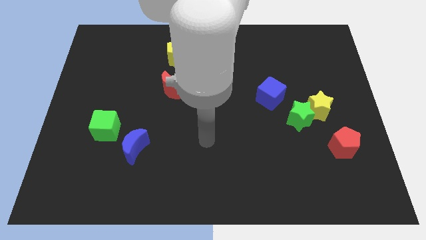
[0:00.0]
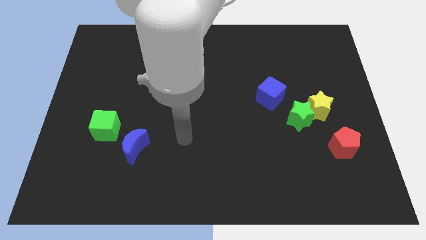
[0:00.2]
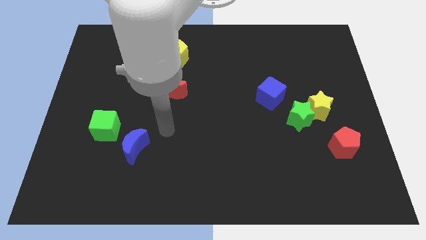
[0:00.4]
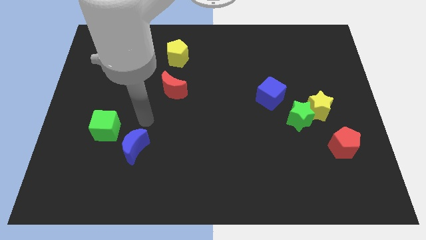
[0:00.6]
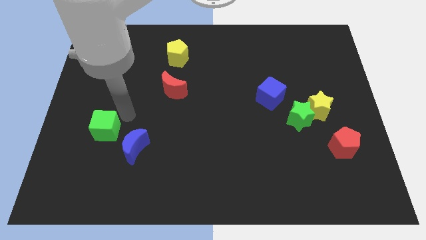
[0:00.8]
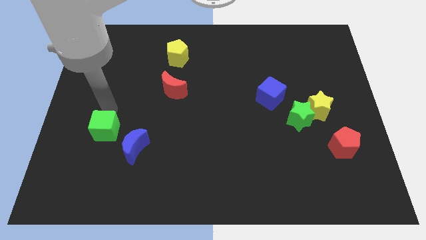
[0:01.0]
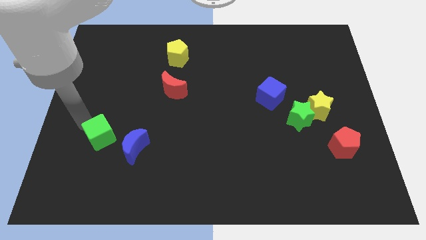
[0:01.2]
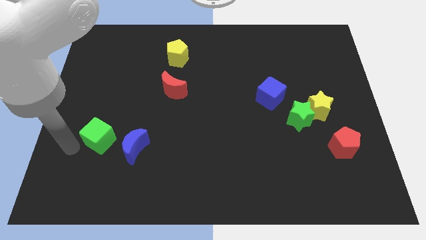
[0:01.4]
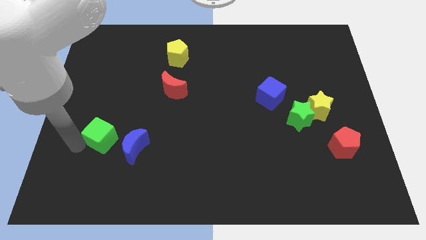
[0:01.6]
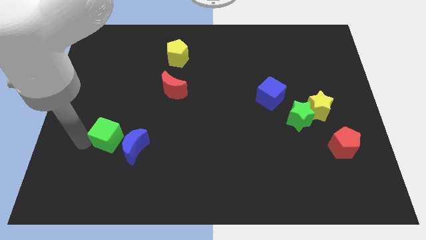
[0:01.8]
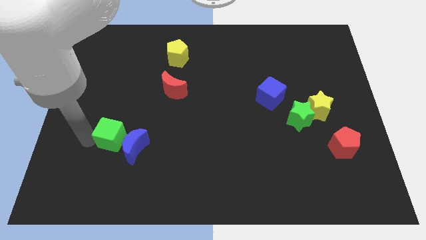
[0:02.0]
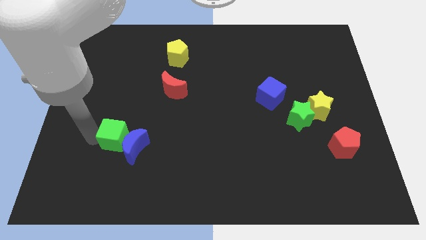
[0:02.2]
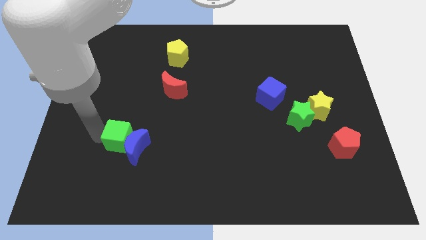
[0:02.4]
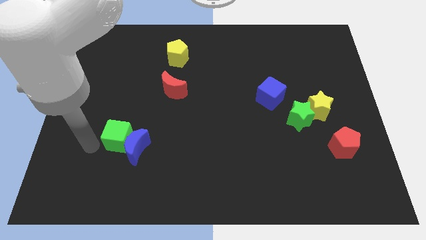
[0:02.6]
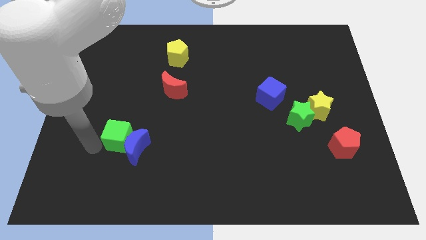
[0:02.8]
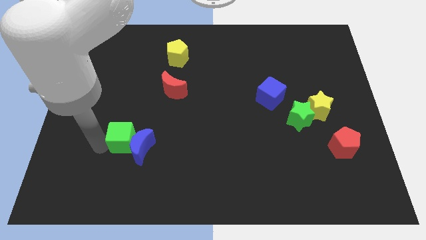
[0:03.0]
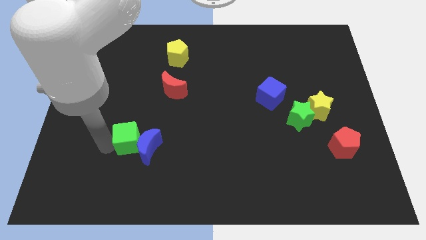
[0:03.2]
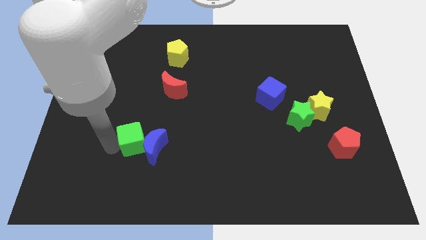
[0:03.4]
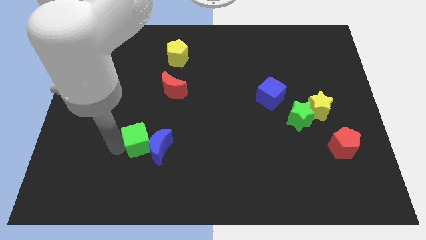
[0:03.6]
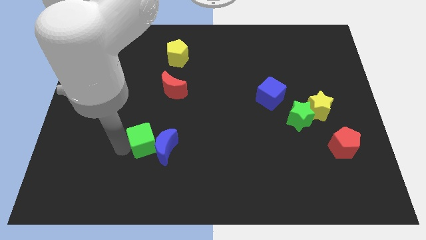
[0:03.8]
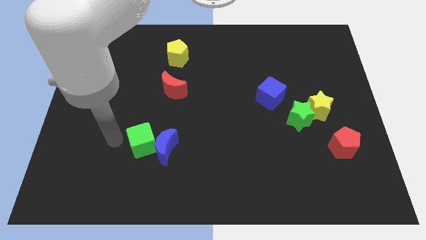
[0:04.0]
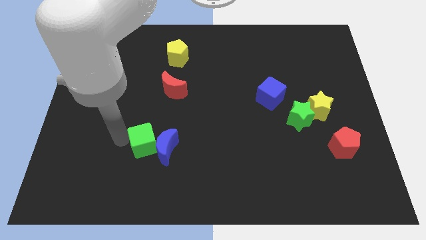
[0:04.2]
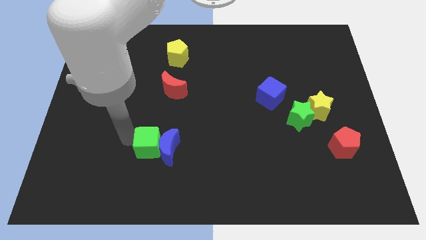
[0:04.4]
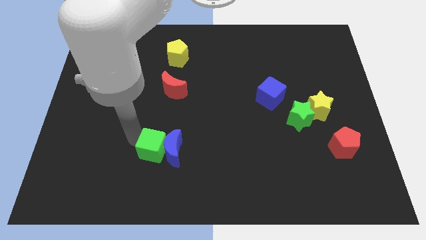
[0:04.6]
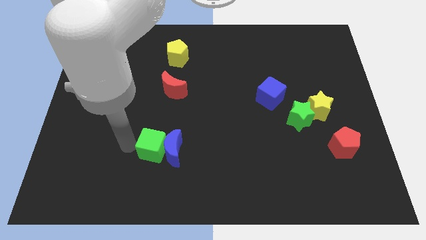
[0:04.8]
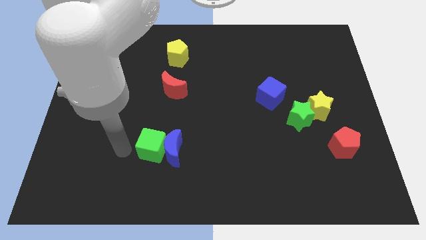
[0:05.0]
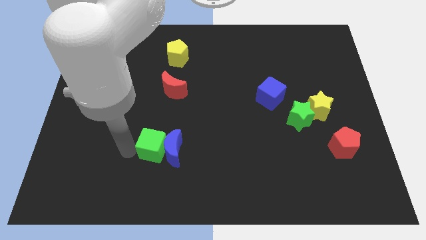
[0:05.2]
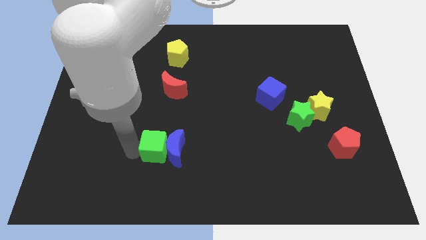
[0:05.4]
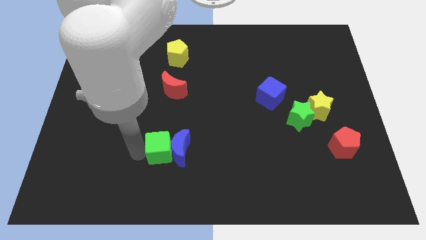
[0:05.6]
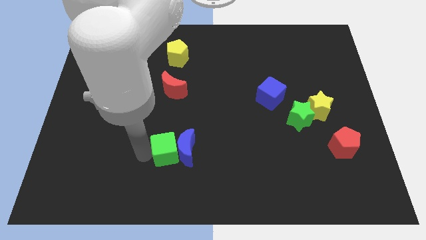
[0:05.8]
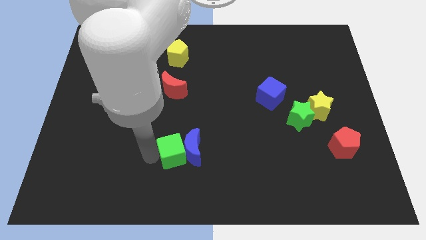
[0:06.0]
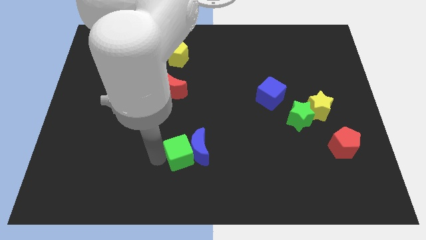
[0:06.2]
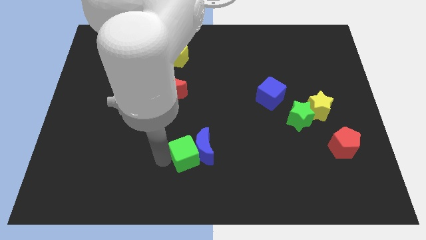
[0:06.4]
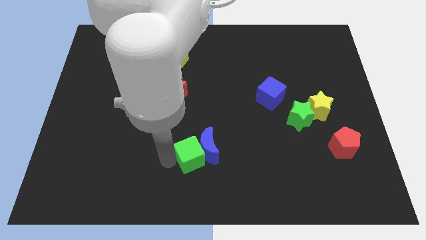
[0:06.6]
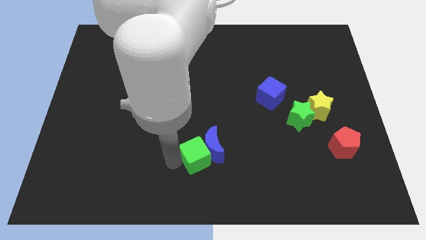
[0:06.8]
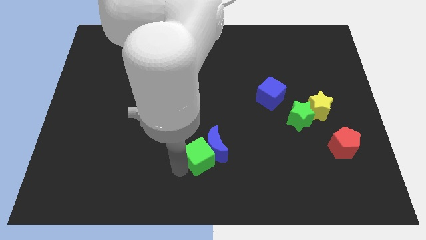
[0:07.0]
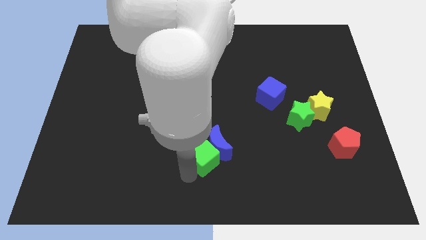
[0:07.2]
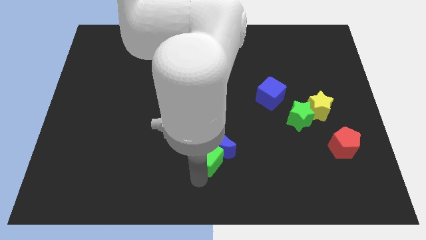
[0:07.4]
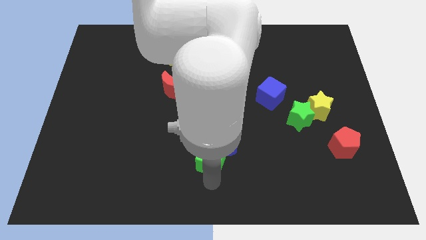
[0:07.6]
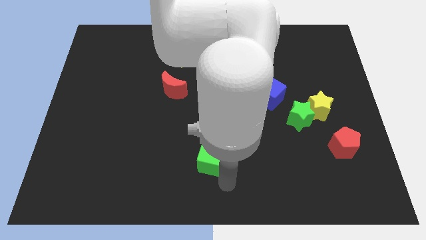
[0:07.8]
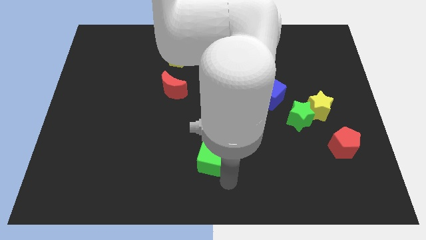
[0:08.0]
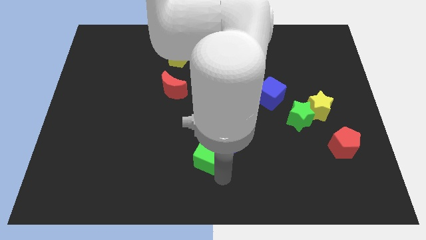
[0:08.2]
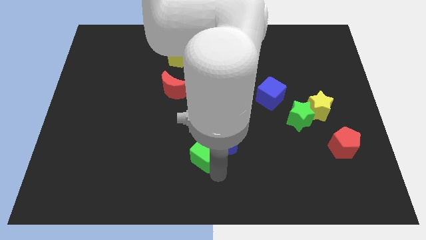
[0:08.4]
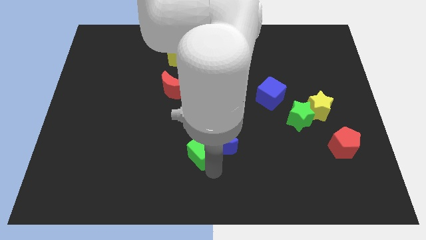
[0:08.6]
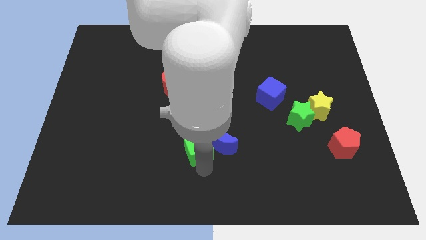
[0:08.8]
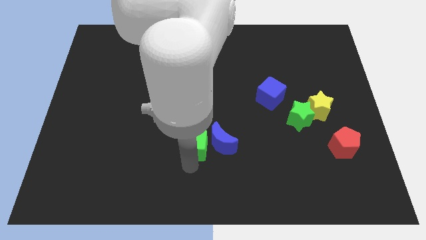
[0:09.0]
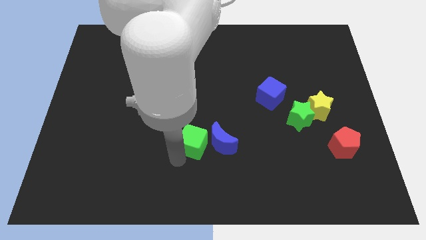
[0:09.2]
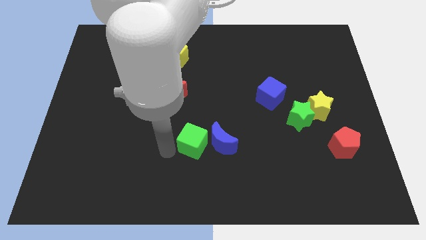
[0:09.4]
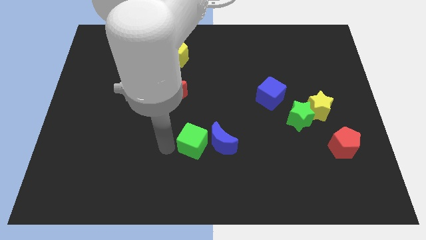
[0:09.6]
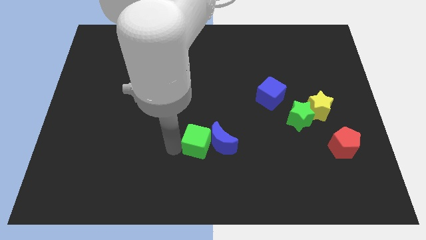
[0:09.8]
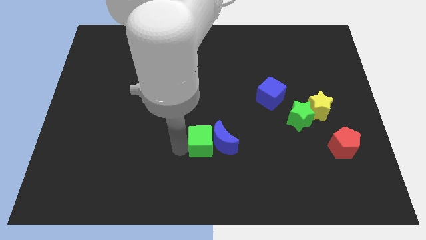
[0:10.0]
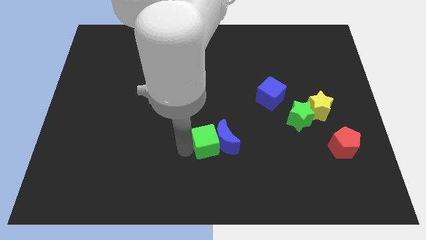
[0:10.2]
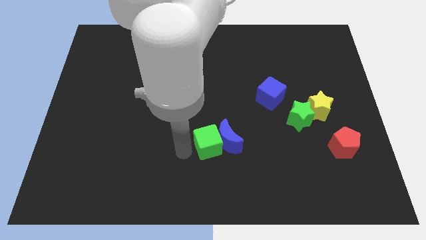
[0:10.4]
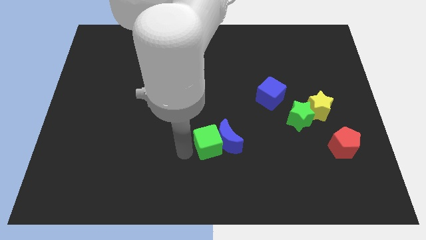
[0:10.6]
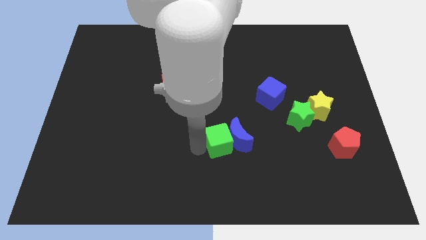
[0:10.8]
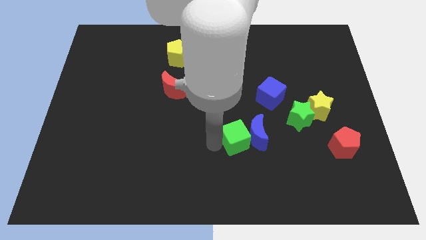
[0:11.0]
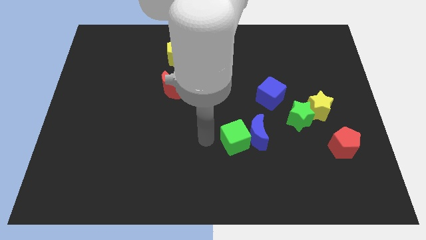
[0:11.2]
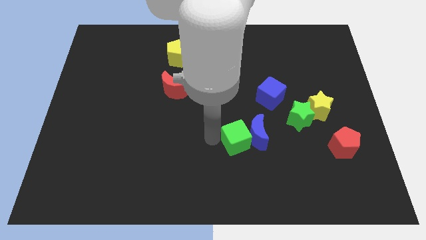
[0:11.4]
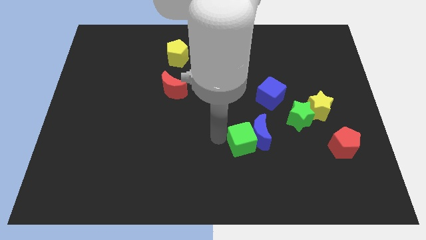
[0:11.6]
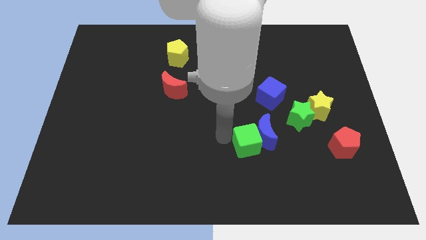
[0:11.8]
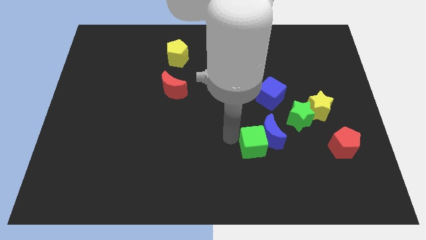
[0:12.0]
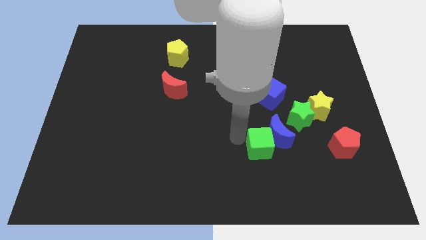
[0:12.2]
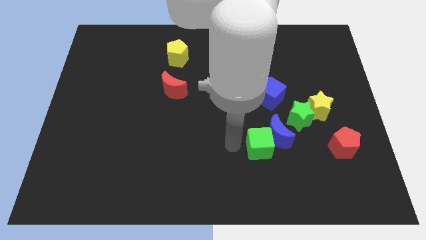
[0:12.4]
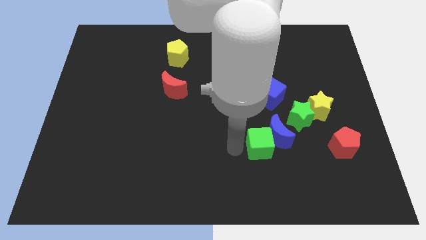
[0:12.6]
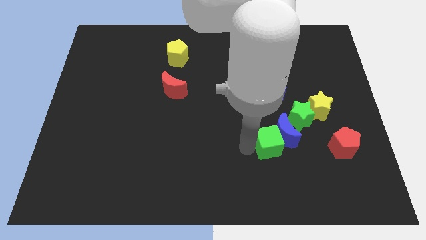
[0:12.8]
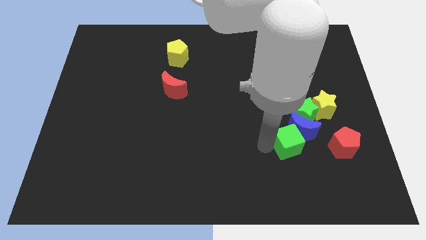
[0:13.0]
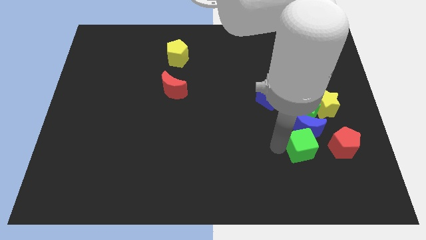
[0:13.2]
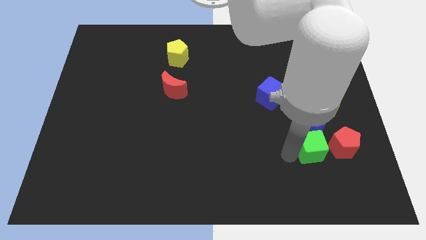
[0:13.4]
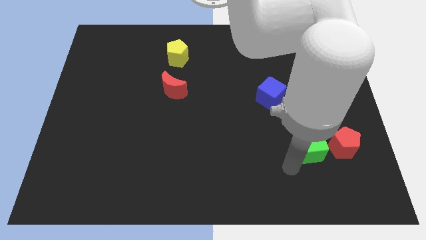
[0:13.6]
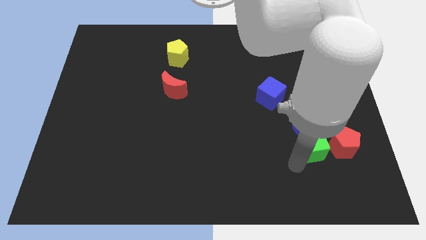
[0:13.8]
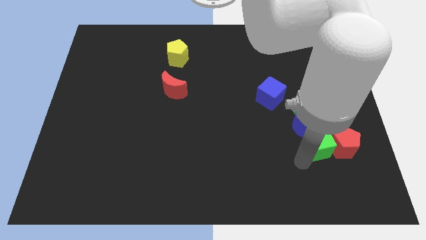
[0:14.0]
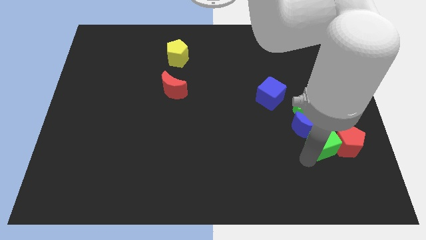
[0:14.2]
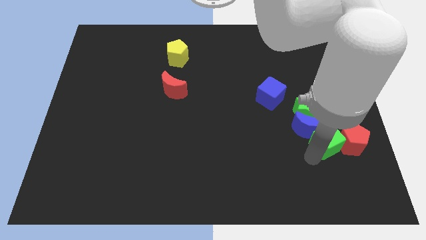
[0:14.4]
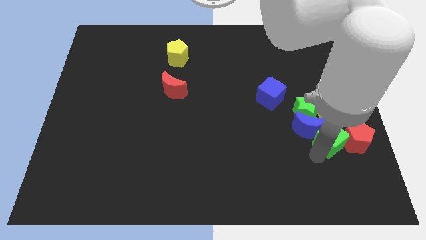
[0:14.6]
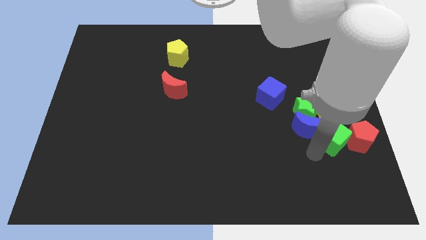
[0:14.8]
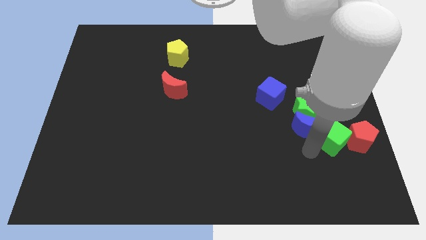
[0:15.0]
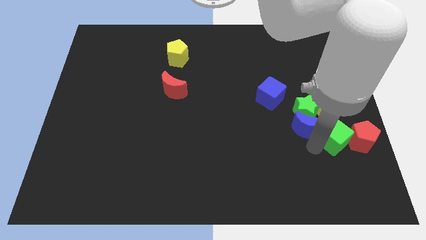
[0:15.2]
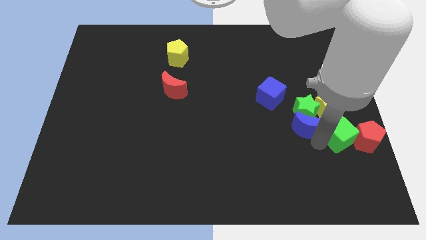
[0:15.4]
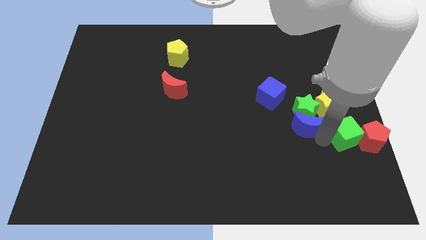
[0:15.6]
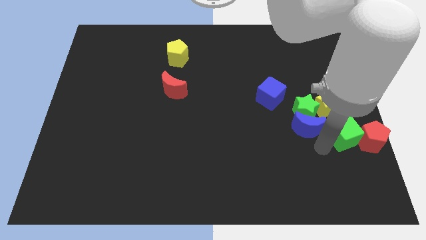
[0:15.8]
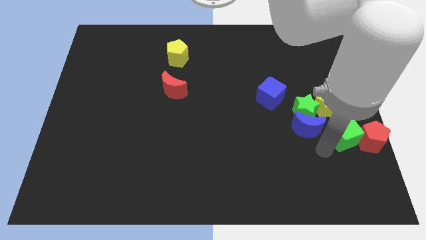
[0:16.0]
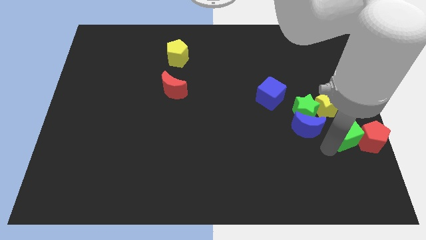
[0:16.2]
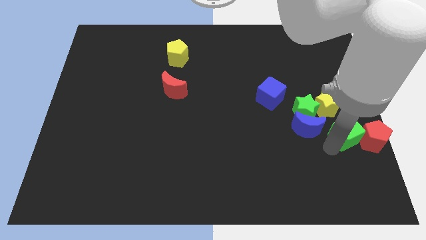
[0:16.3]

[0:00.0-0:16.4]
push the green cube to the right side
